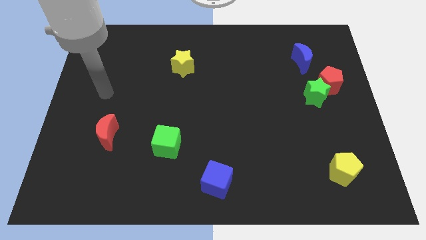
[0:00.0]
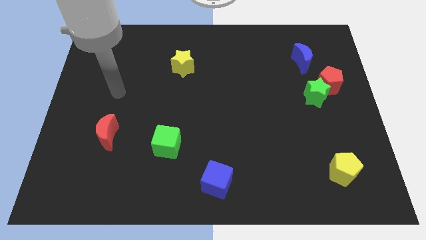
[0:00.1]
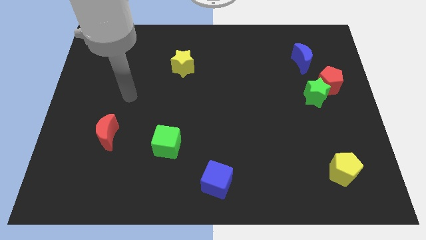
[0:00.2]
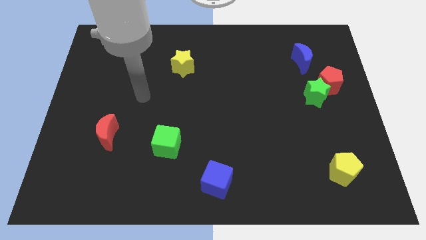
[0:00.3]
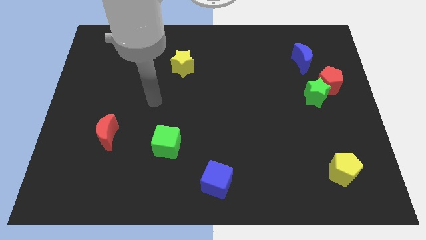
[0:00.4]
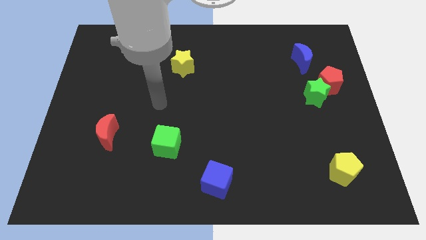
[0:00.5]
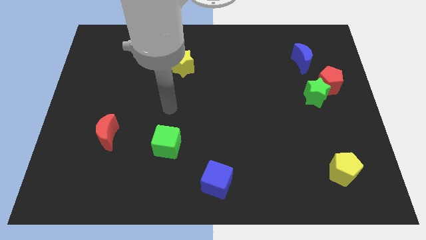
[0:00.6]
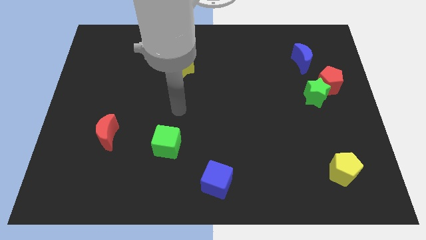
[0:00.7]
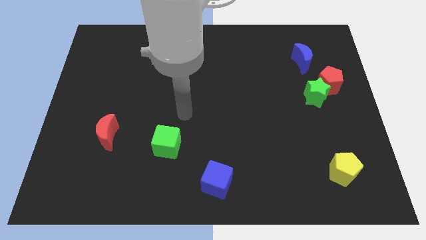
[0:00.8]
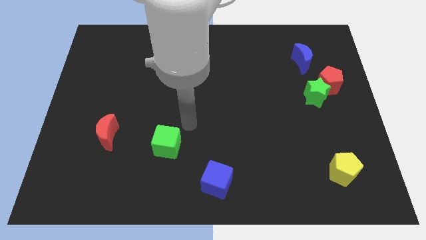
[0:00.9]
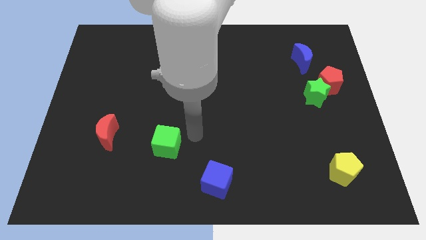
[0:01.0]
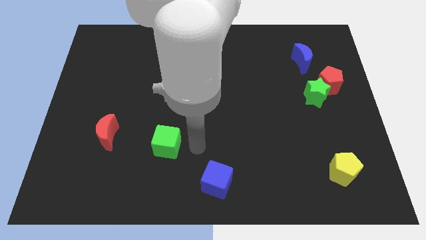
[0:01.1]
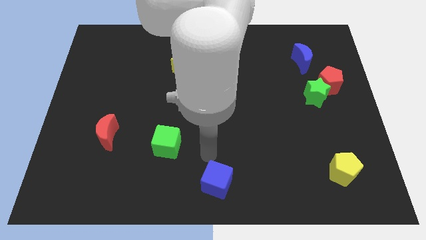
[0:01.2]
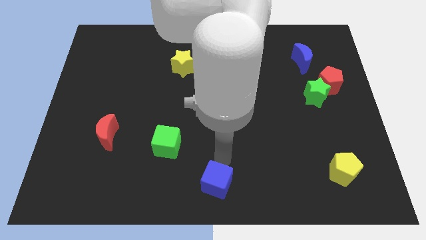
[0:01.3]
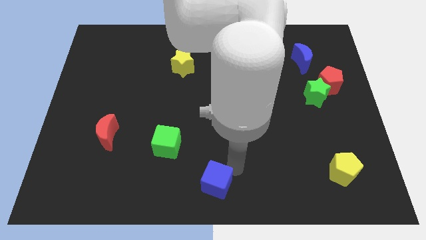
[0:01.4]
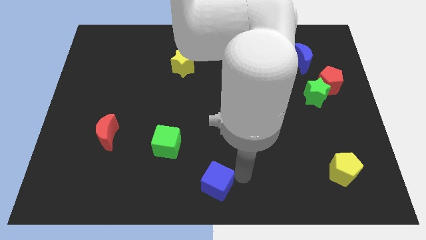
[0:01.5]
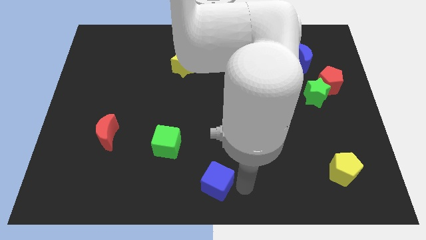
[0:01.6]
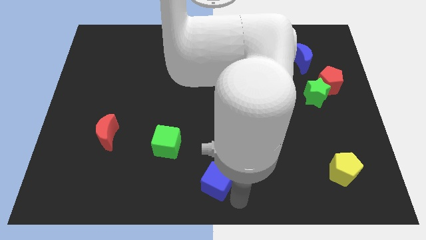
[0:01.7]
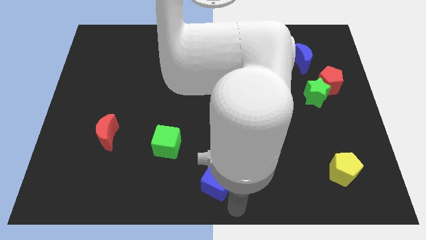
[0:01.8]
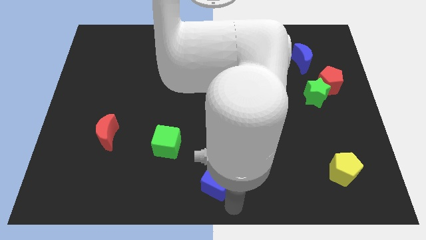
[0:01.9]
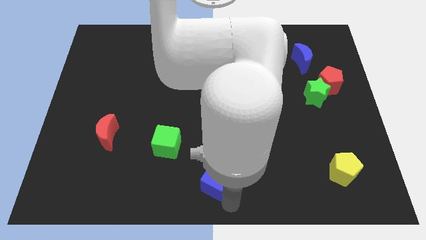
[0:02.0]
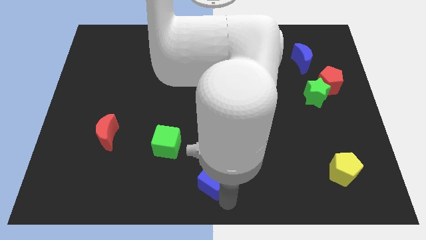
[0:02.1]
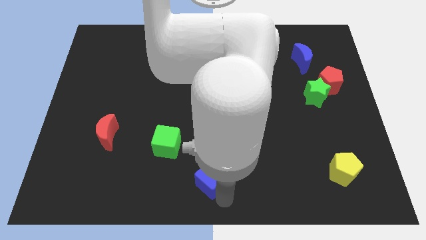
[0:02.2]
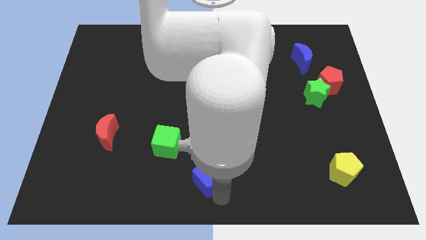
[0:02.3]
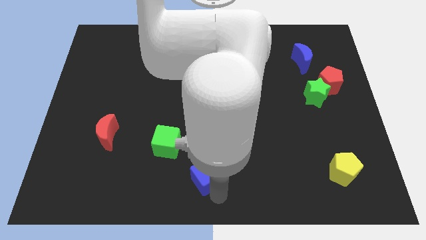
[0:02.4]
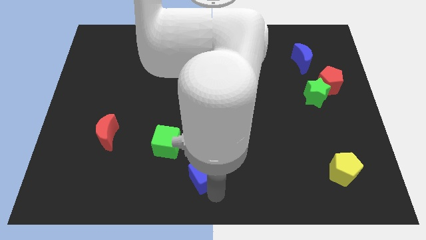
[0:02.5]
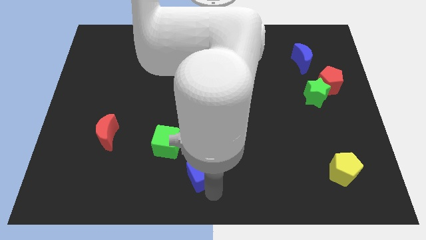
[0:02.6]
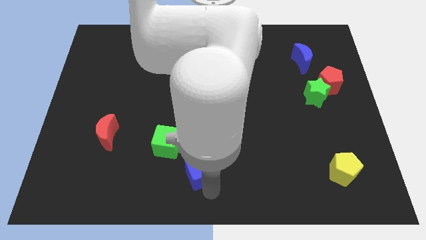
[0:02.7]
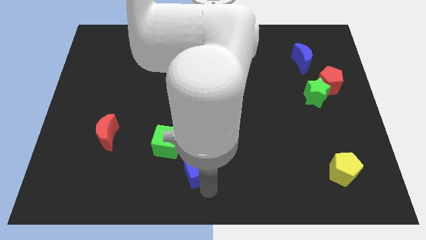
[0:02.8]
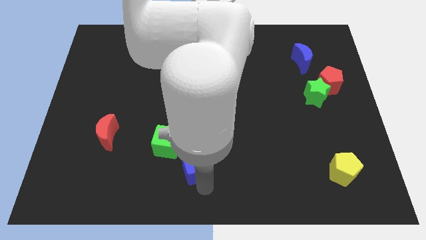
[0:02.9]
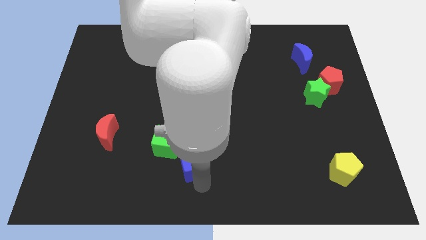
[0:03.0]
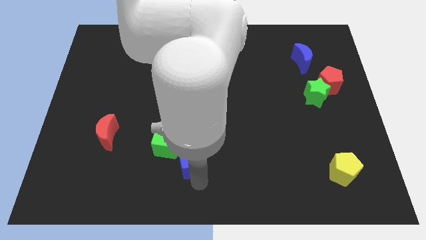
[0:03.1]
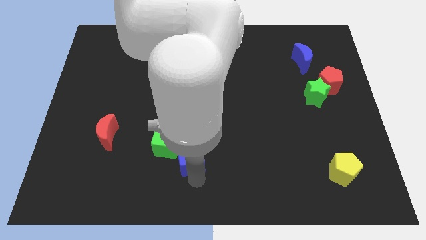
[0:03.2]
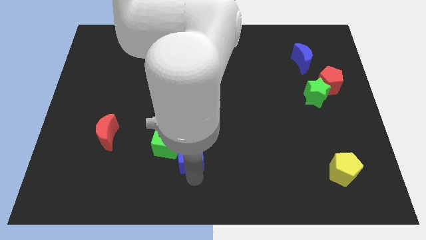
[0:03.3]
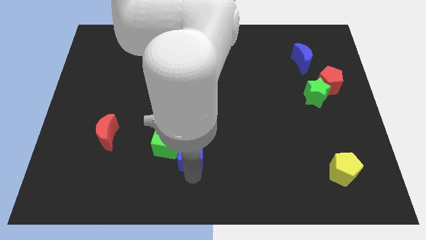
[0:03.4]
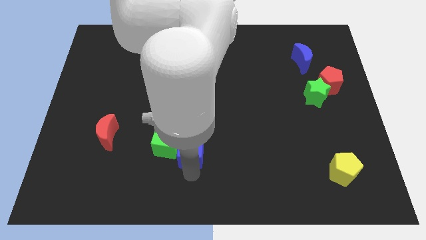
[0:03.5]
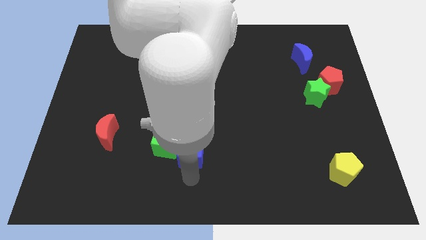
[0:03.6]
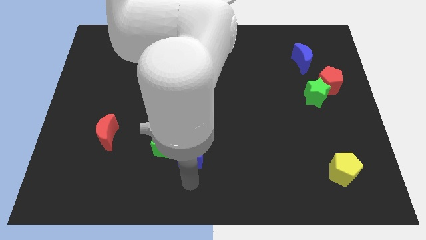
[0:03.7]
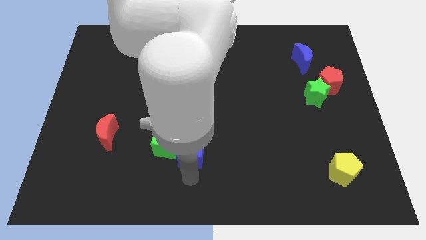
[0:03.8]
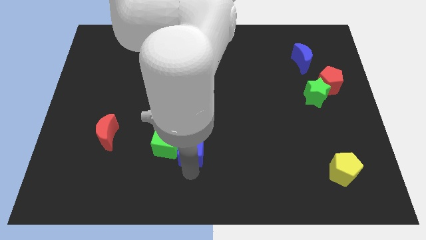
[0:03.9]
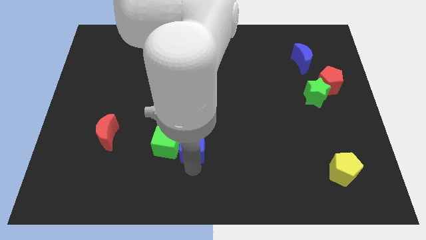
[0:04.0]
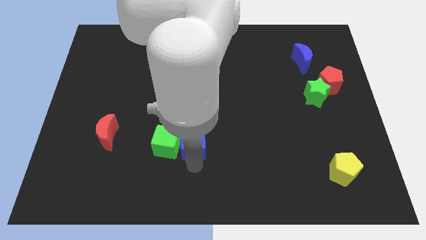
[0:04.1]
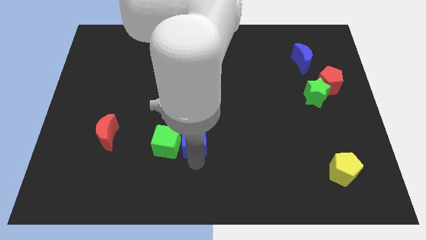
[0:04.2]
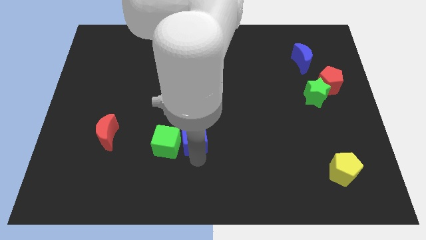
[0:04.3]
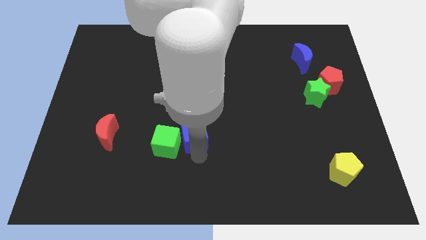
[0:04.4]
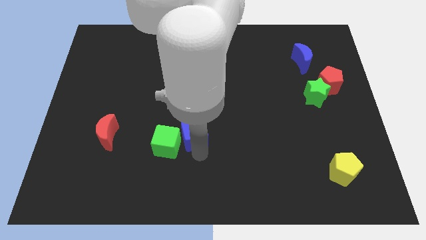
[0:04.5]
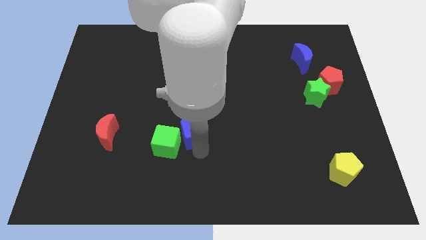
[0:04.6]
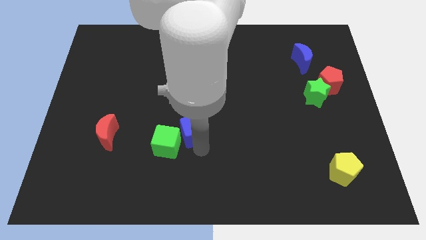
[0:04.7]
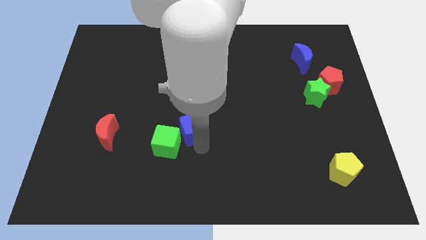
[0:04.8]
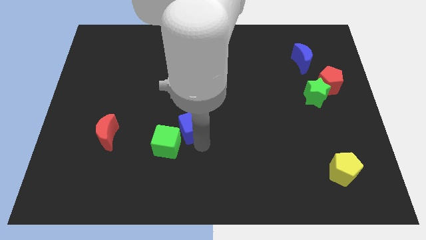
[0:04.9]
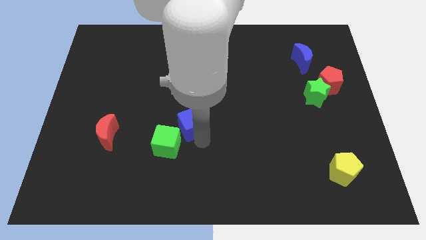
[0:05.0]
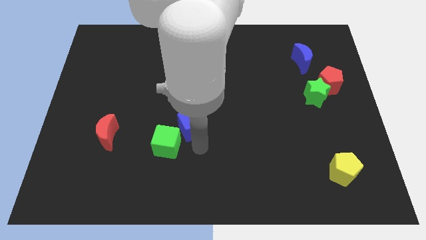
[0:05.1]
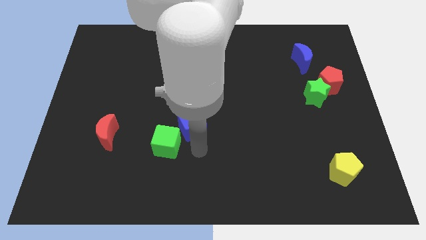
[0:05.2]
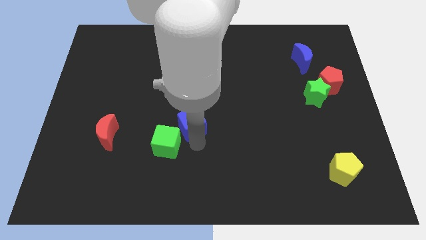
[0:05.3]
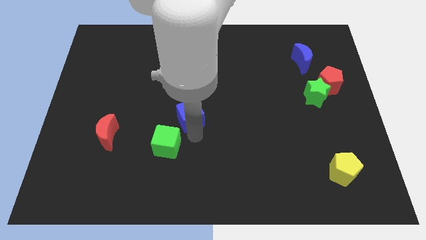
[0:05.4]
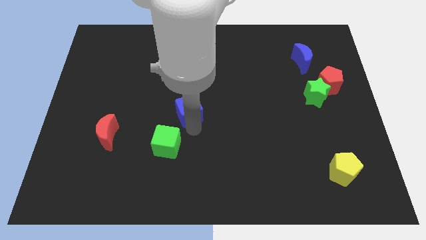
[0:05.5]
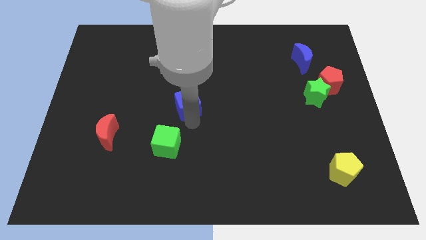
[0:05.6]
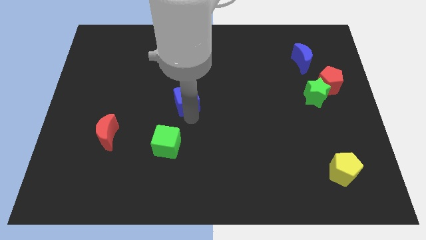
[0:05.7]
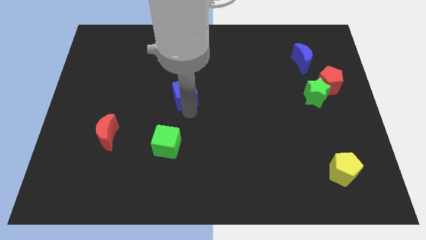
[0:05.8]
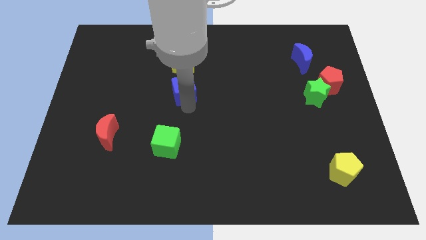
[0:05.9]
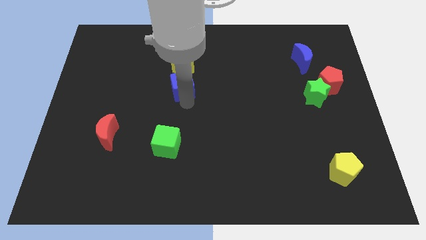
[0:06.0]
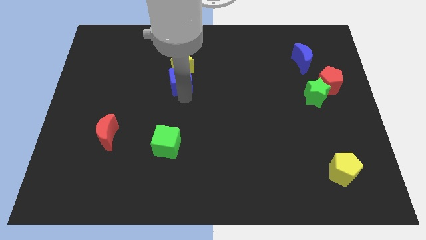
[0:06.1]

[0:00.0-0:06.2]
move the blue cube towards the yellow star

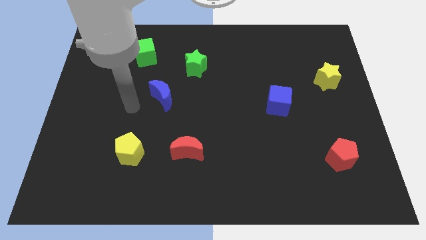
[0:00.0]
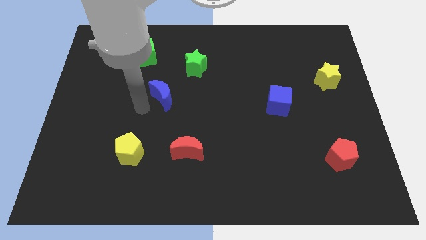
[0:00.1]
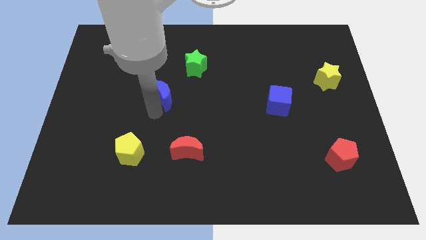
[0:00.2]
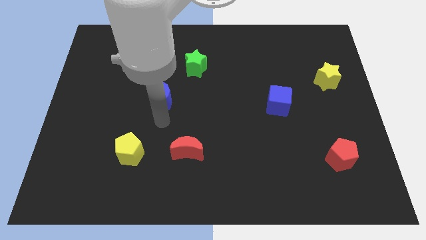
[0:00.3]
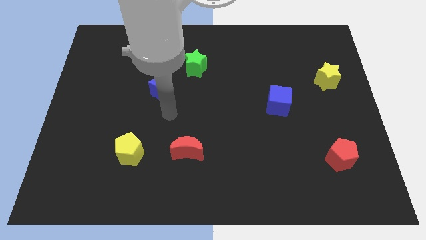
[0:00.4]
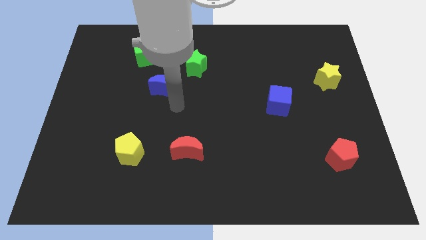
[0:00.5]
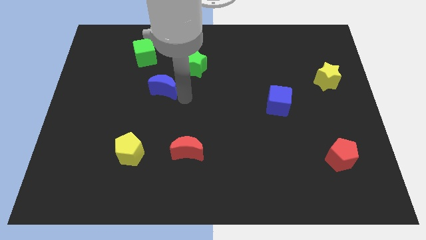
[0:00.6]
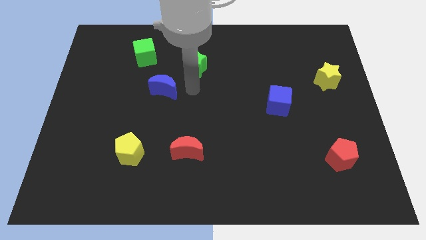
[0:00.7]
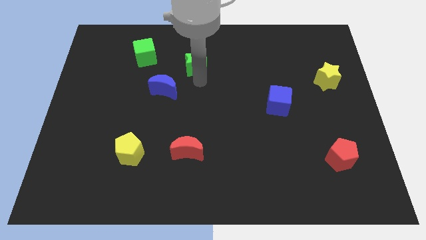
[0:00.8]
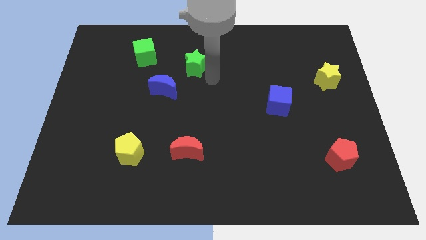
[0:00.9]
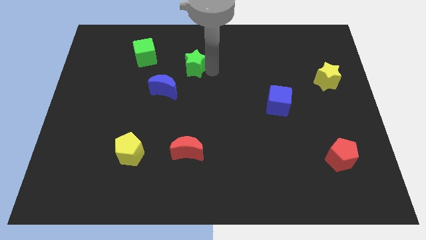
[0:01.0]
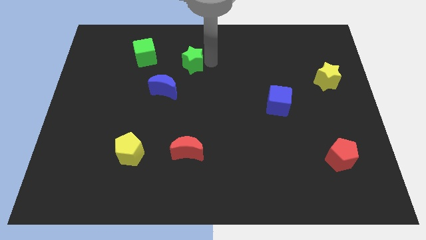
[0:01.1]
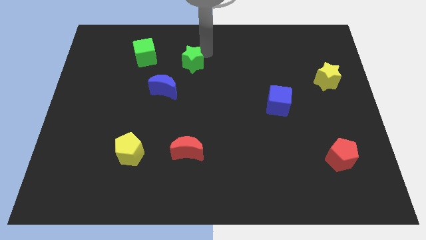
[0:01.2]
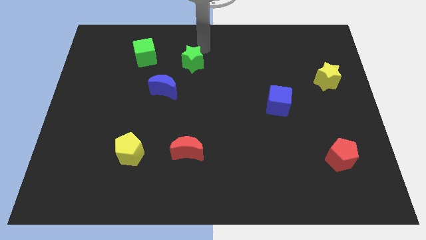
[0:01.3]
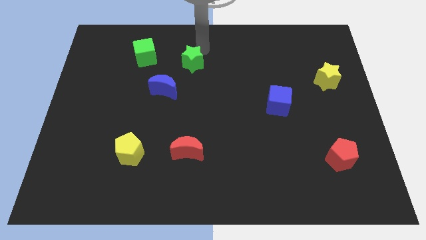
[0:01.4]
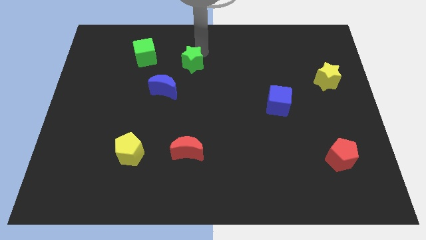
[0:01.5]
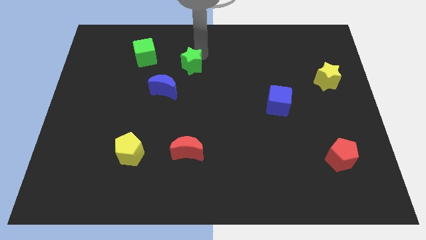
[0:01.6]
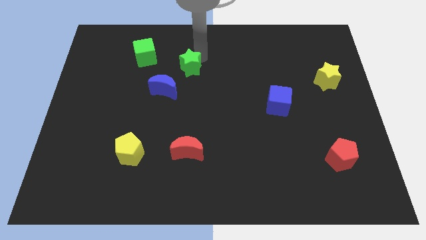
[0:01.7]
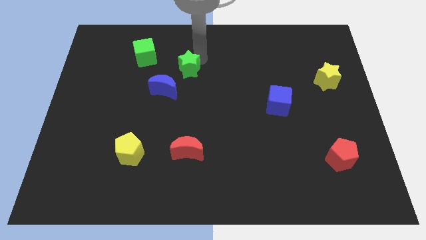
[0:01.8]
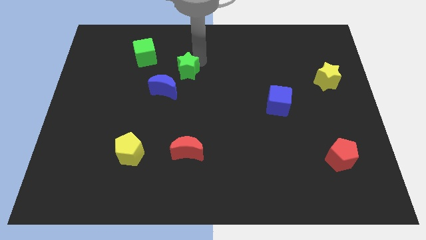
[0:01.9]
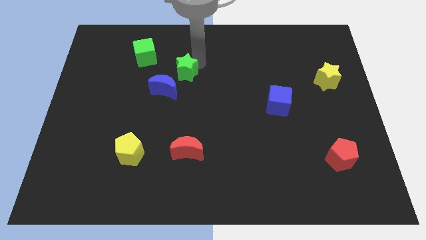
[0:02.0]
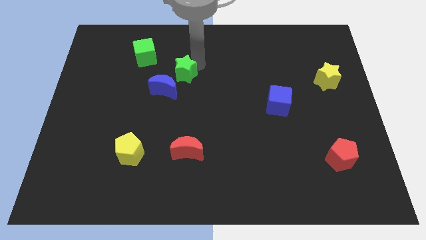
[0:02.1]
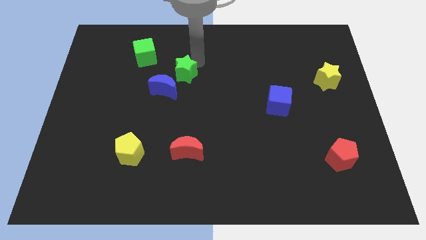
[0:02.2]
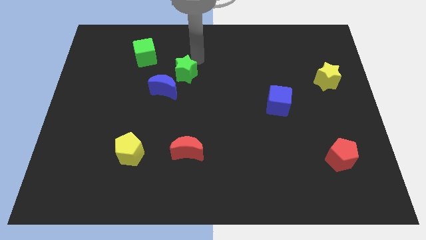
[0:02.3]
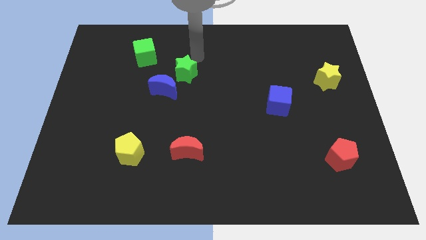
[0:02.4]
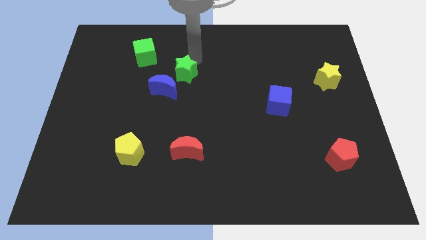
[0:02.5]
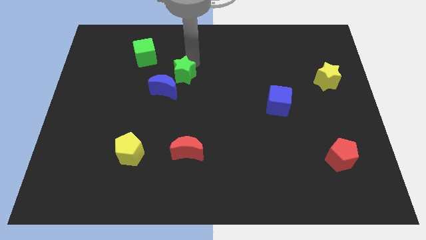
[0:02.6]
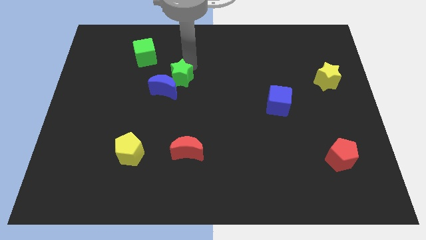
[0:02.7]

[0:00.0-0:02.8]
push the green star towards the blue moon
